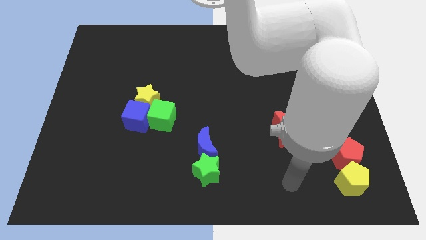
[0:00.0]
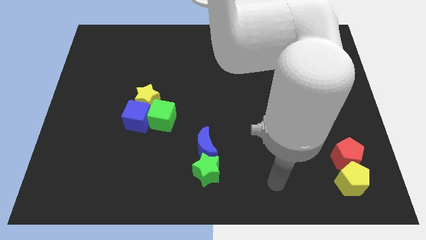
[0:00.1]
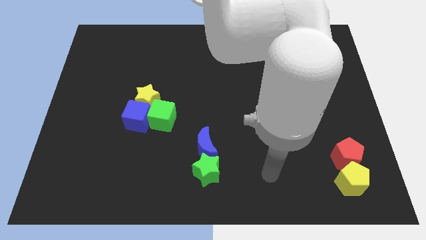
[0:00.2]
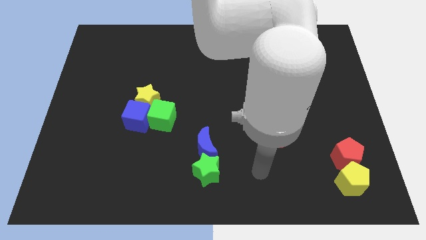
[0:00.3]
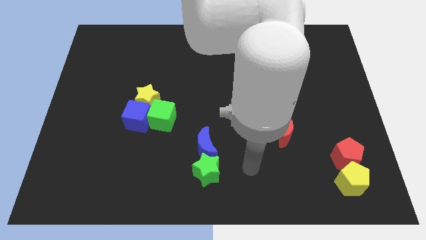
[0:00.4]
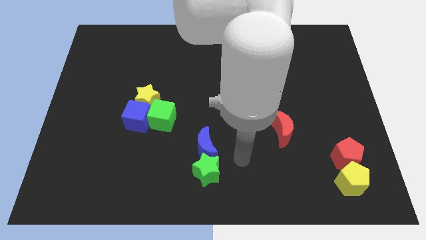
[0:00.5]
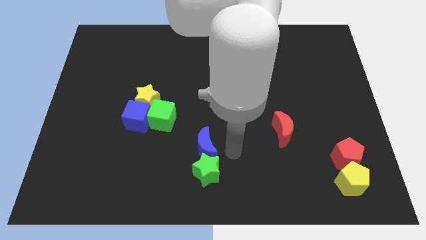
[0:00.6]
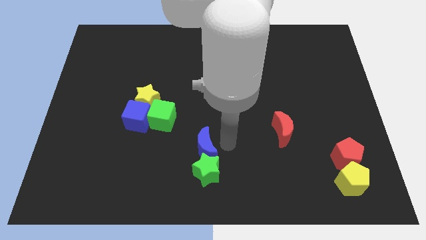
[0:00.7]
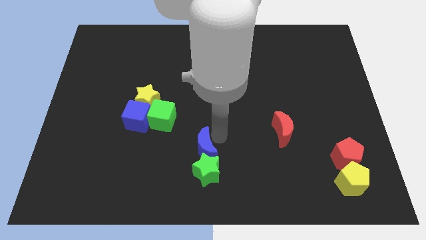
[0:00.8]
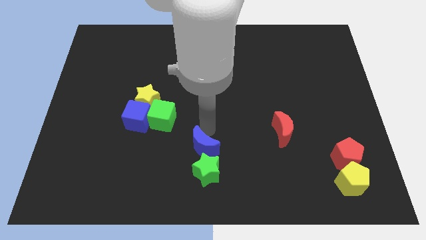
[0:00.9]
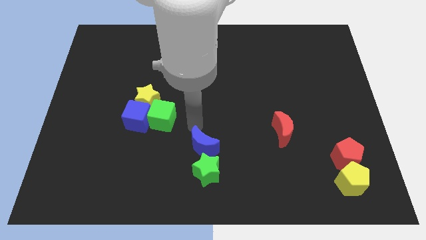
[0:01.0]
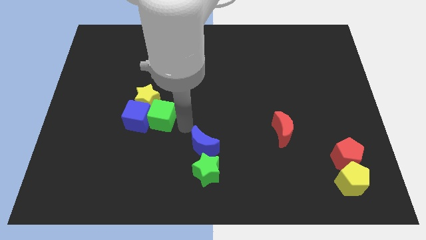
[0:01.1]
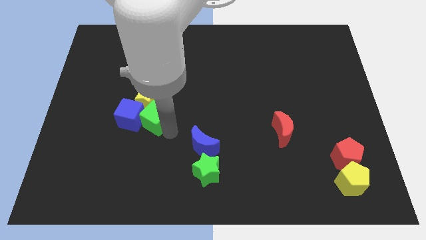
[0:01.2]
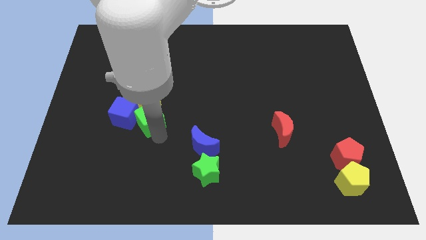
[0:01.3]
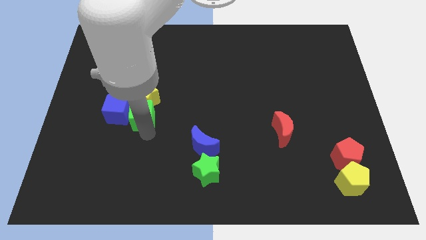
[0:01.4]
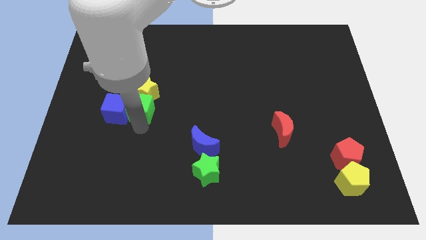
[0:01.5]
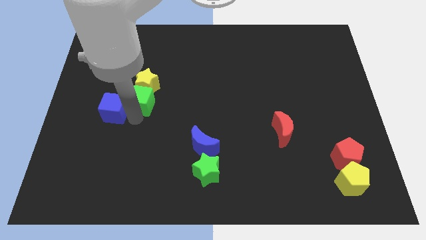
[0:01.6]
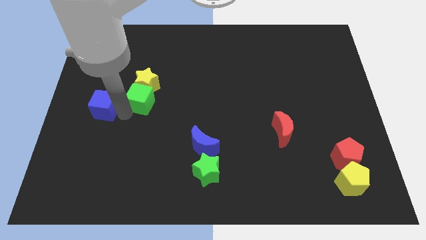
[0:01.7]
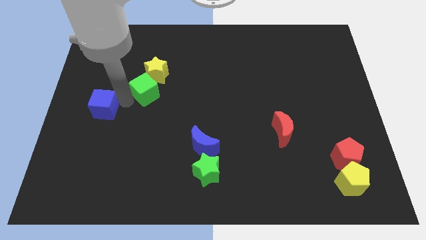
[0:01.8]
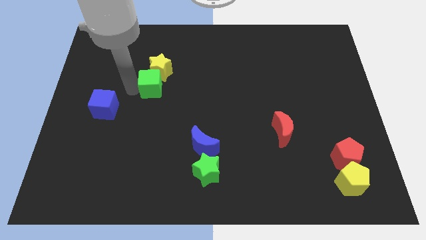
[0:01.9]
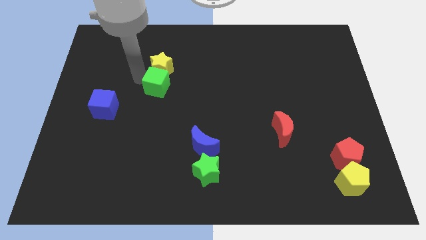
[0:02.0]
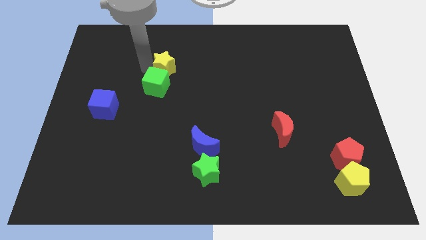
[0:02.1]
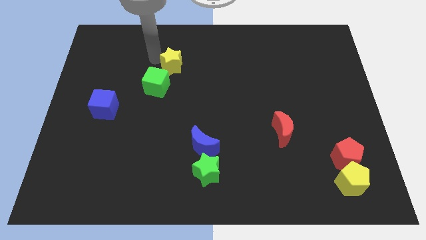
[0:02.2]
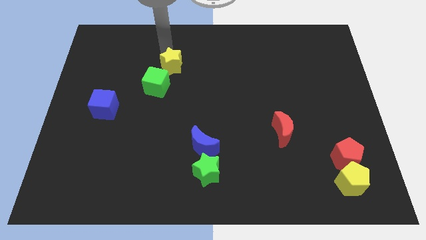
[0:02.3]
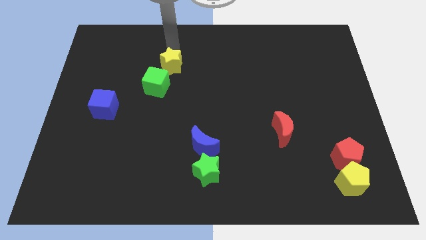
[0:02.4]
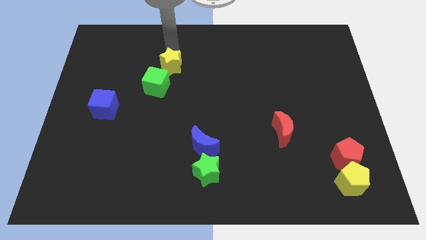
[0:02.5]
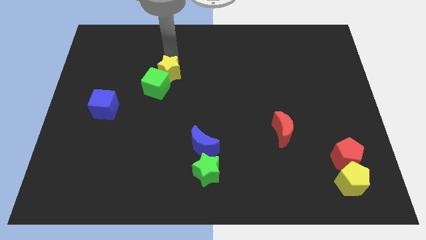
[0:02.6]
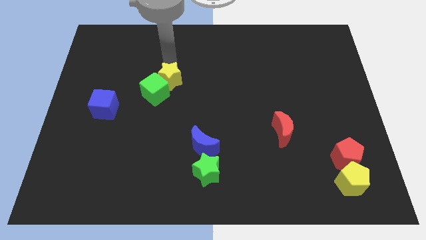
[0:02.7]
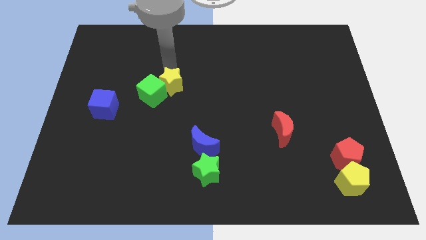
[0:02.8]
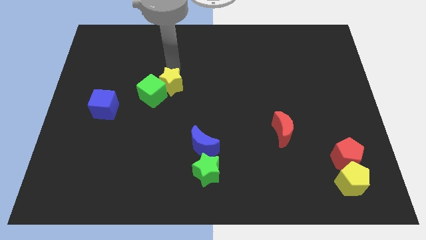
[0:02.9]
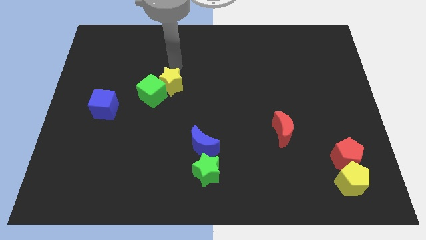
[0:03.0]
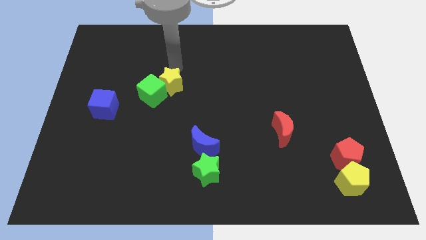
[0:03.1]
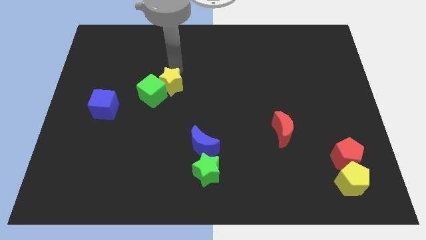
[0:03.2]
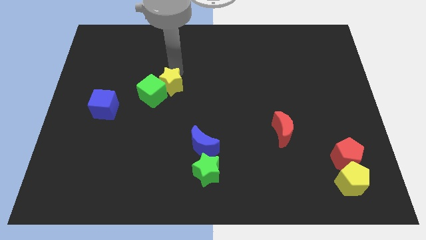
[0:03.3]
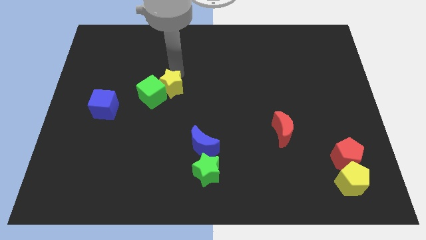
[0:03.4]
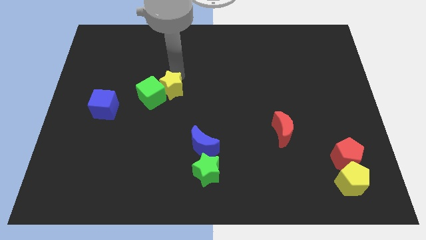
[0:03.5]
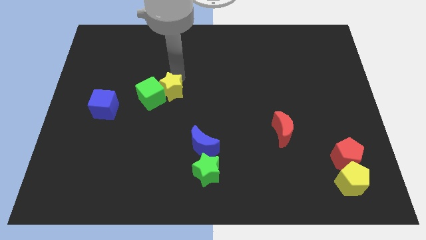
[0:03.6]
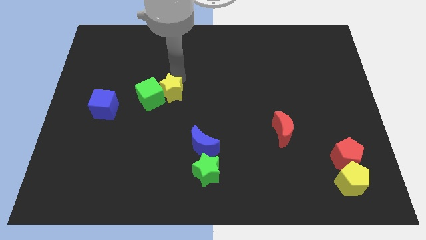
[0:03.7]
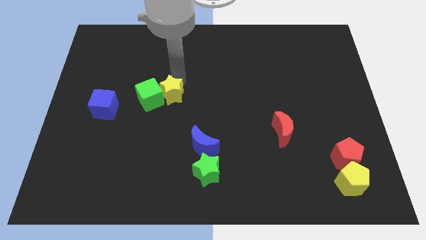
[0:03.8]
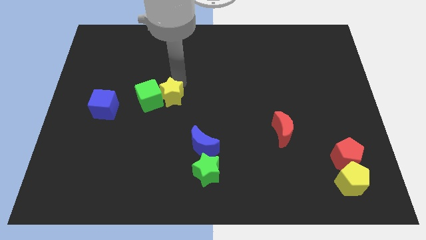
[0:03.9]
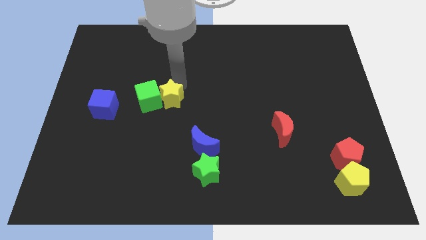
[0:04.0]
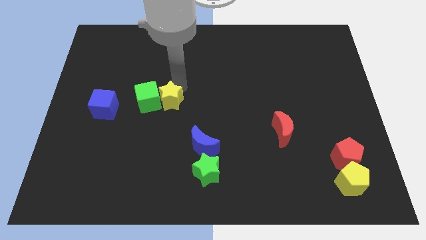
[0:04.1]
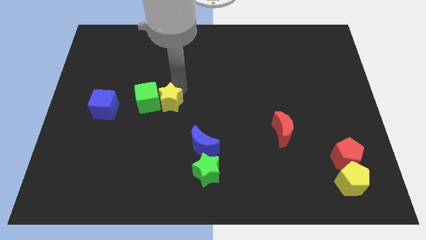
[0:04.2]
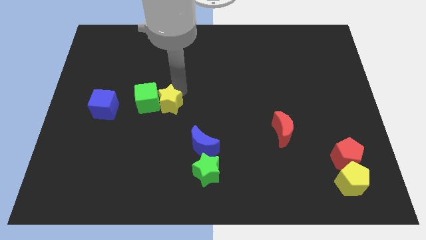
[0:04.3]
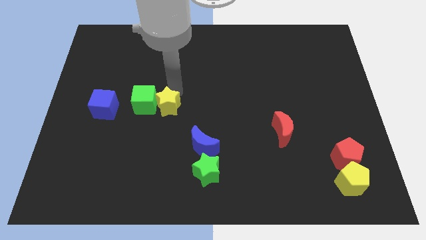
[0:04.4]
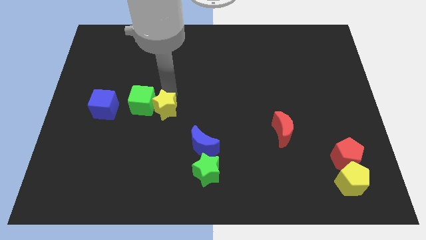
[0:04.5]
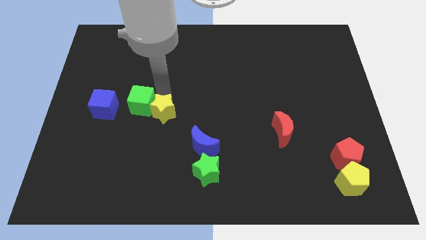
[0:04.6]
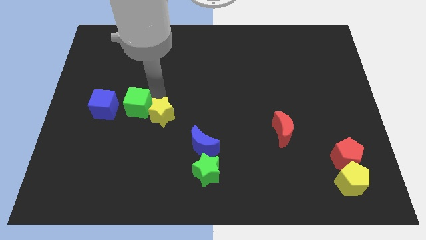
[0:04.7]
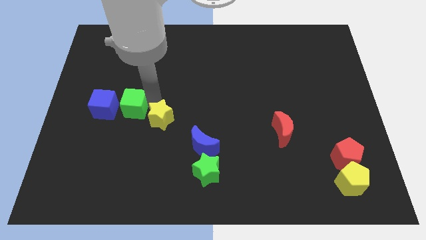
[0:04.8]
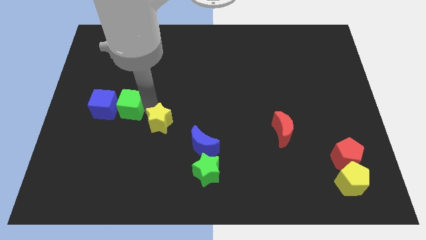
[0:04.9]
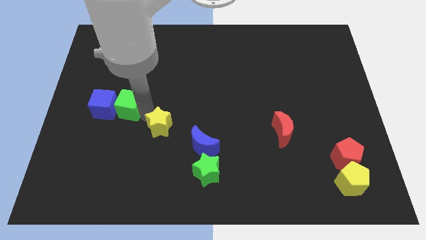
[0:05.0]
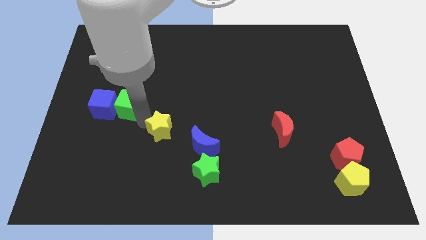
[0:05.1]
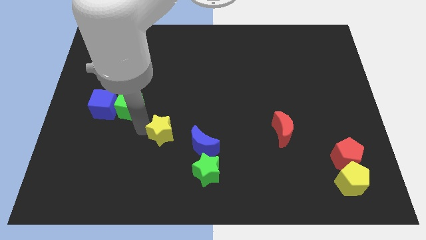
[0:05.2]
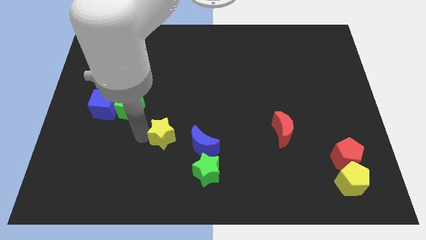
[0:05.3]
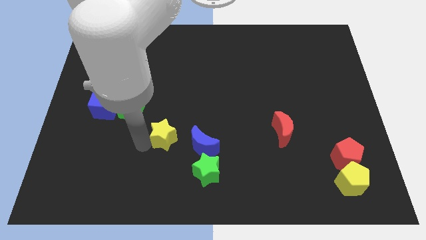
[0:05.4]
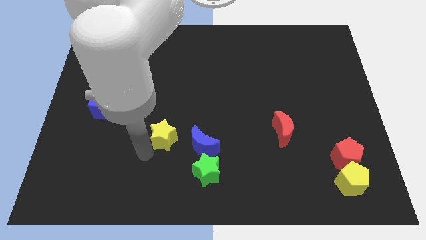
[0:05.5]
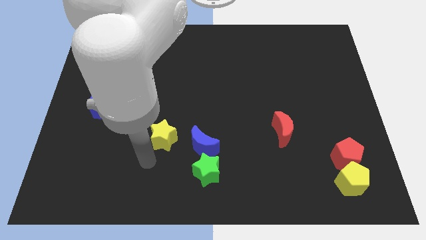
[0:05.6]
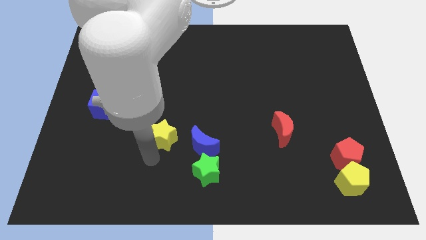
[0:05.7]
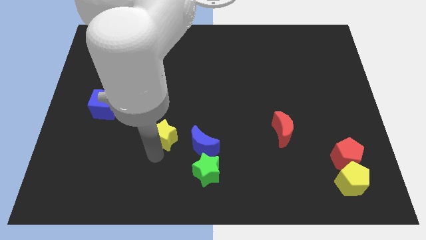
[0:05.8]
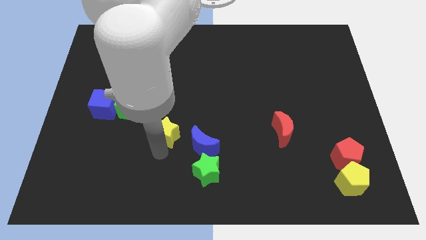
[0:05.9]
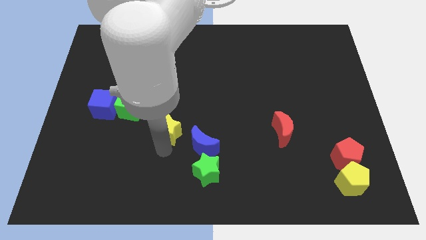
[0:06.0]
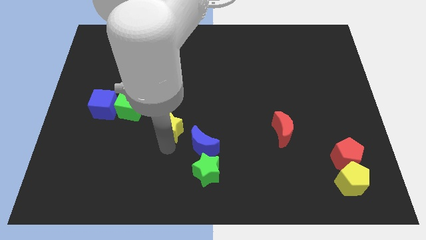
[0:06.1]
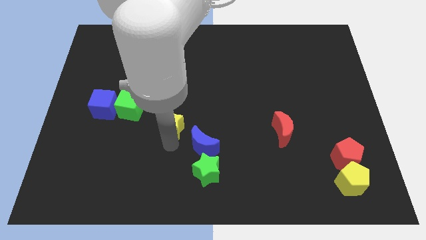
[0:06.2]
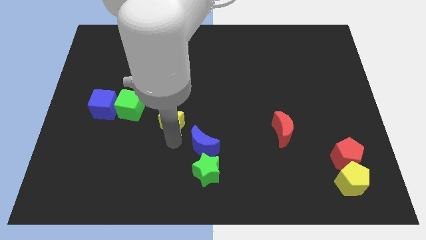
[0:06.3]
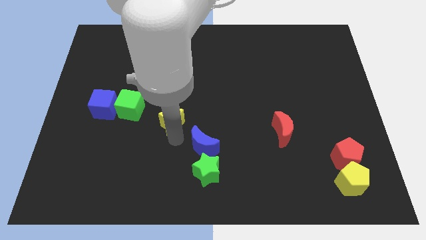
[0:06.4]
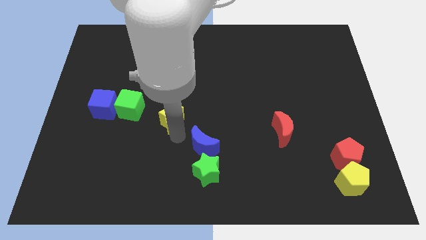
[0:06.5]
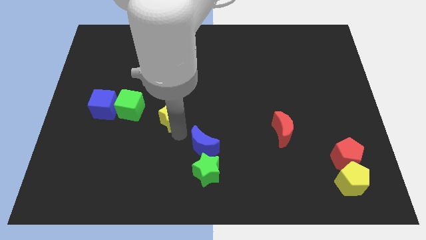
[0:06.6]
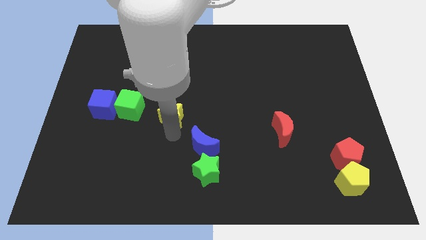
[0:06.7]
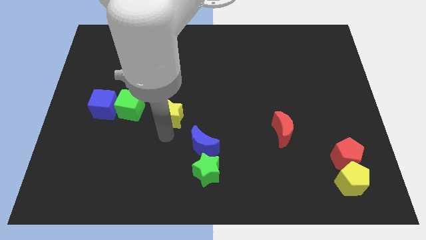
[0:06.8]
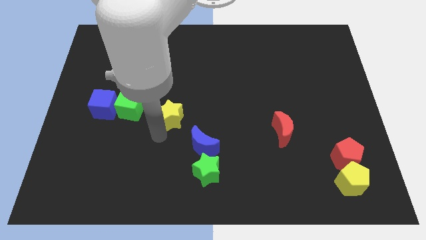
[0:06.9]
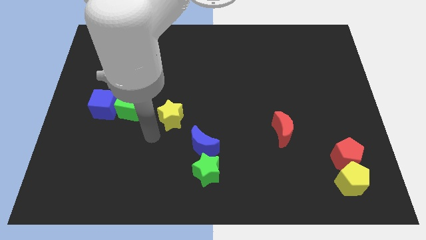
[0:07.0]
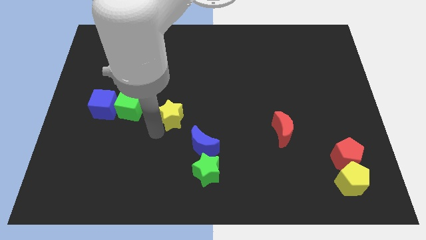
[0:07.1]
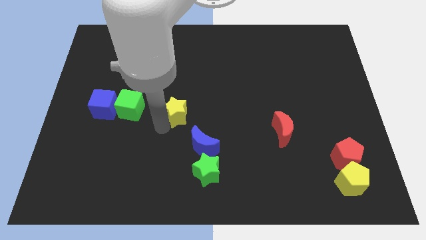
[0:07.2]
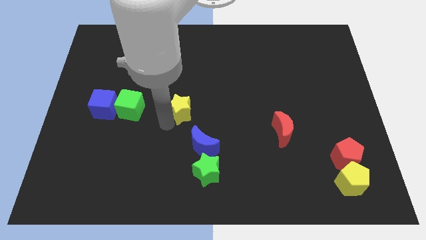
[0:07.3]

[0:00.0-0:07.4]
slide the yellow star to the right slightly

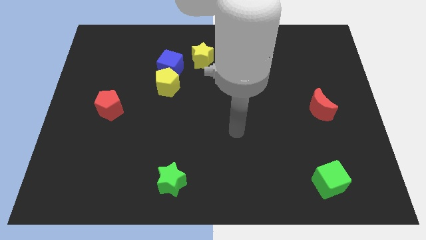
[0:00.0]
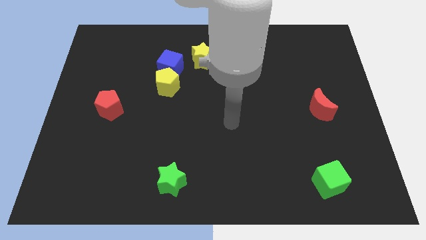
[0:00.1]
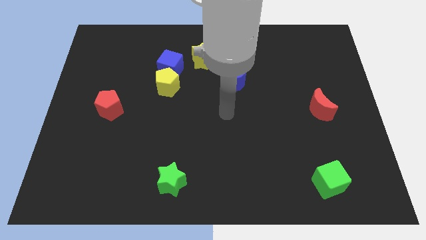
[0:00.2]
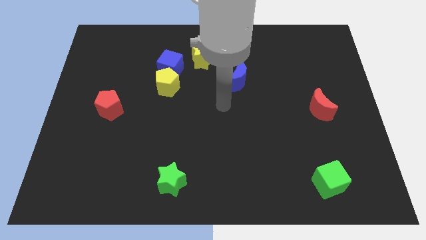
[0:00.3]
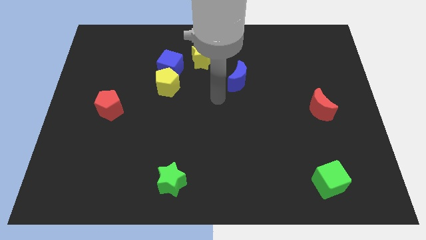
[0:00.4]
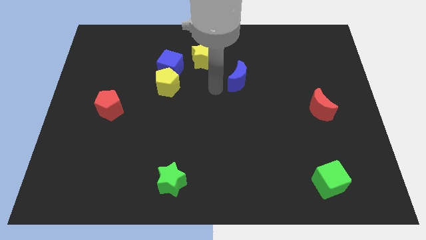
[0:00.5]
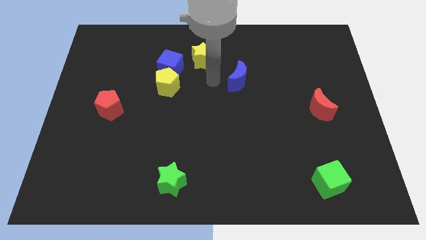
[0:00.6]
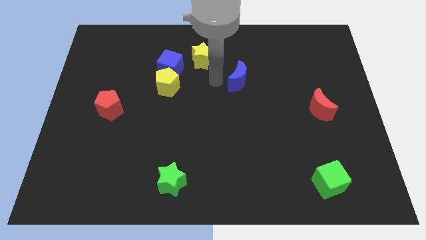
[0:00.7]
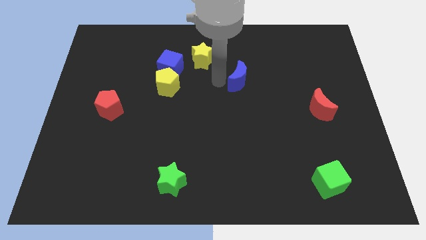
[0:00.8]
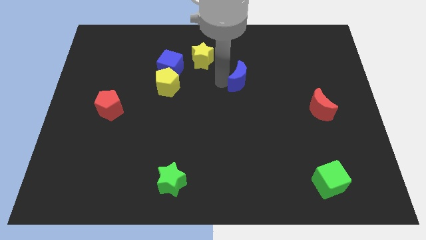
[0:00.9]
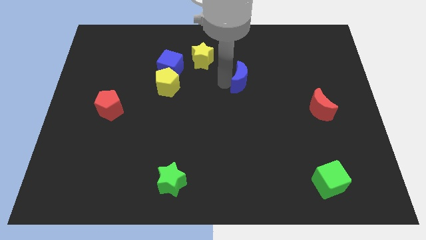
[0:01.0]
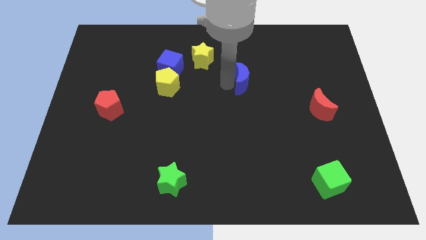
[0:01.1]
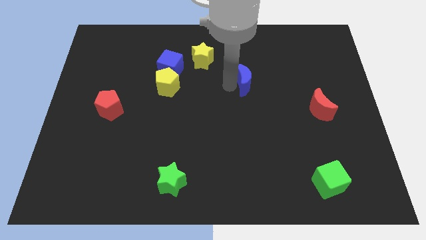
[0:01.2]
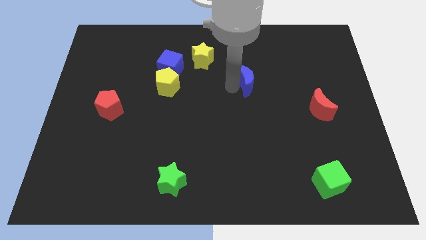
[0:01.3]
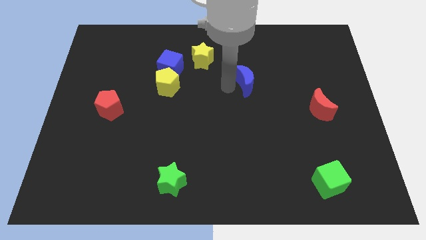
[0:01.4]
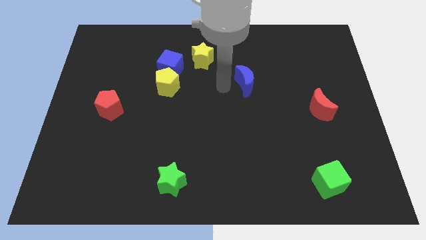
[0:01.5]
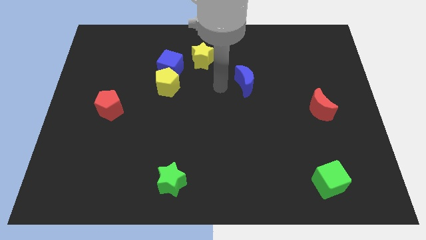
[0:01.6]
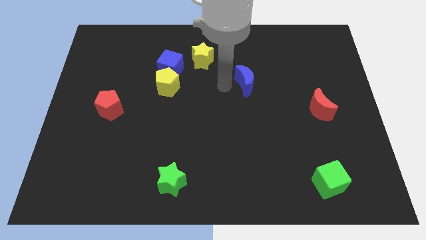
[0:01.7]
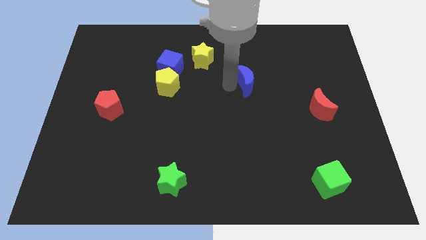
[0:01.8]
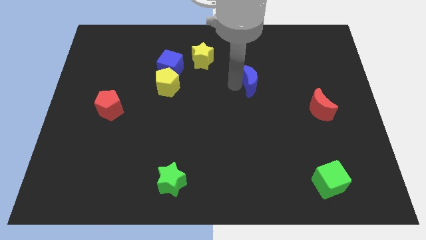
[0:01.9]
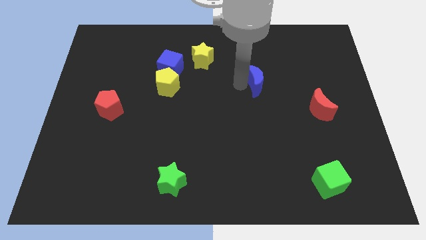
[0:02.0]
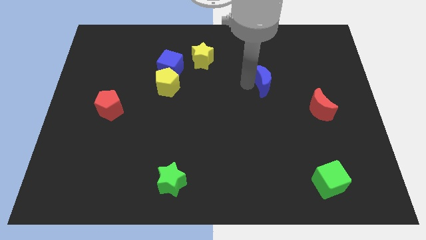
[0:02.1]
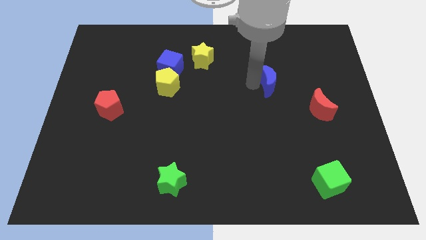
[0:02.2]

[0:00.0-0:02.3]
slightly push the blue moon to the right
